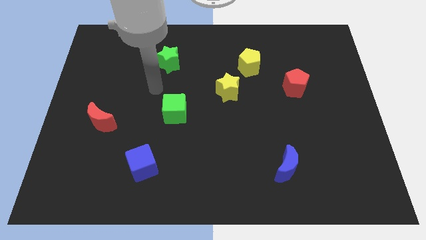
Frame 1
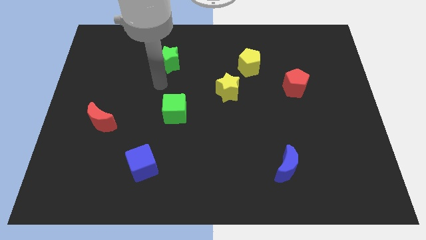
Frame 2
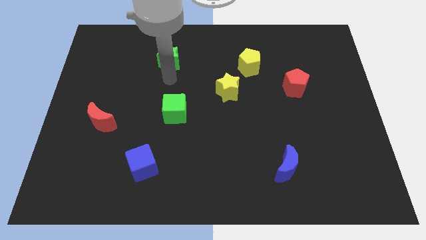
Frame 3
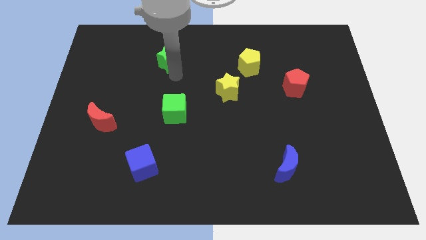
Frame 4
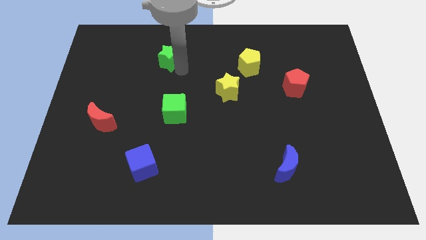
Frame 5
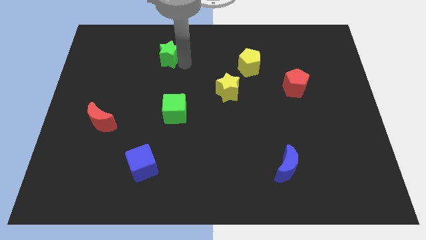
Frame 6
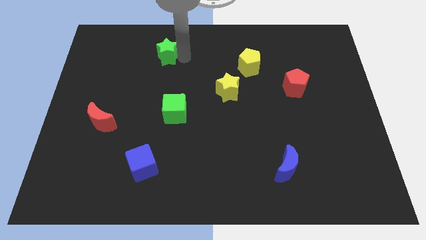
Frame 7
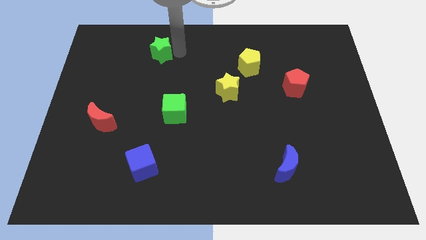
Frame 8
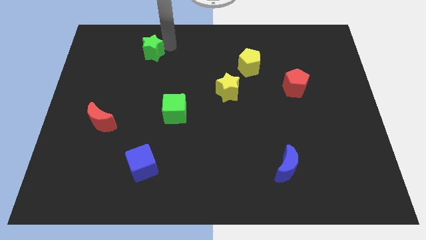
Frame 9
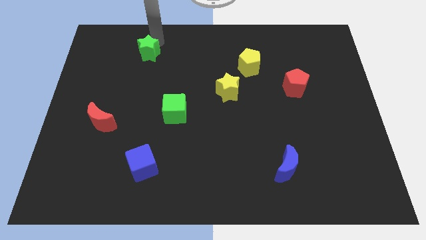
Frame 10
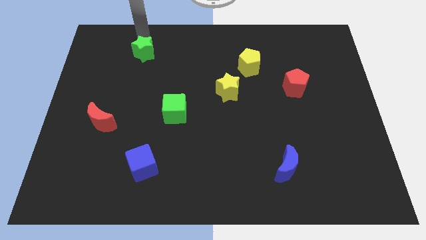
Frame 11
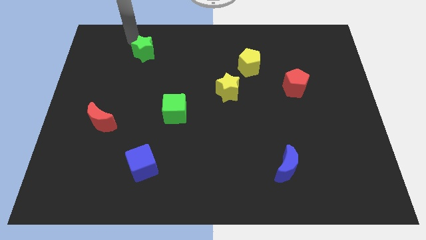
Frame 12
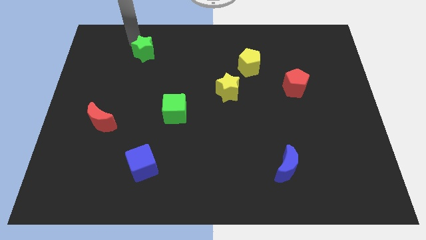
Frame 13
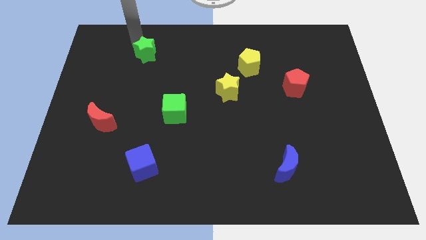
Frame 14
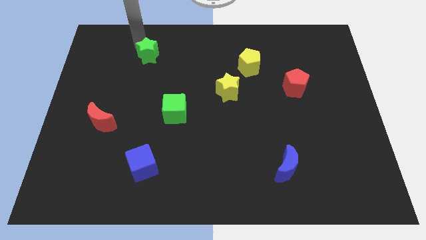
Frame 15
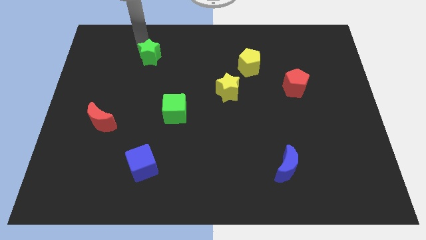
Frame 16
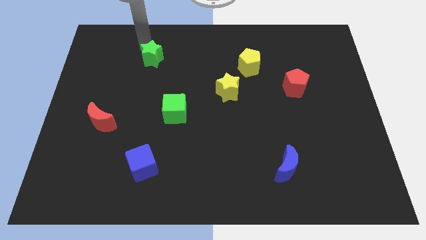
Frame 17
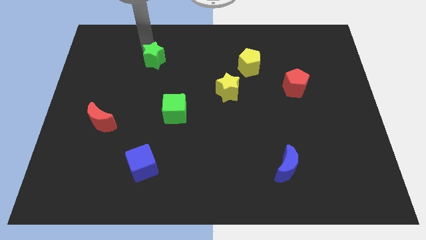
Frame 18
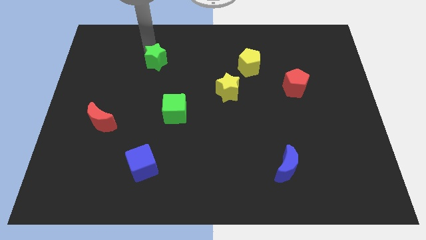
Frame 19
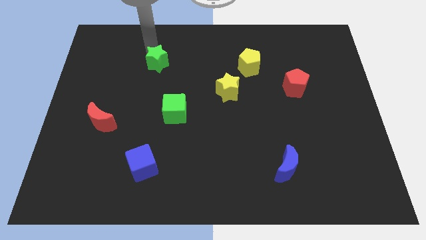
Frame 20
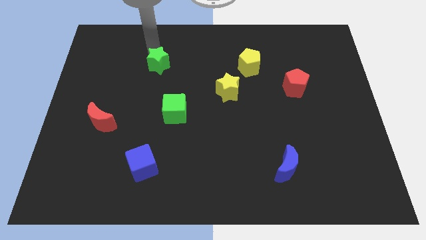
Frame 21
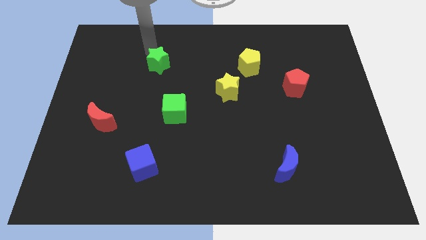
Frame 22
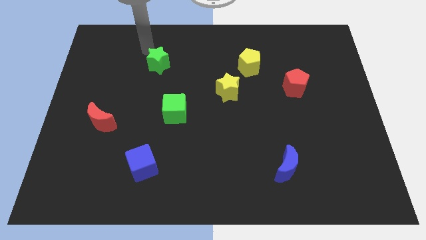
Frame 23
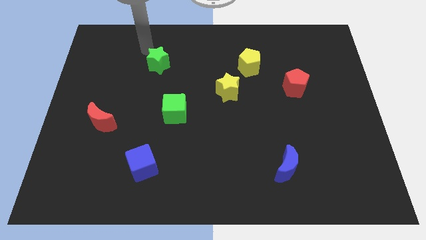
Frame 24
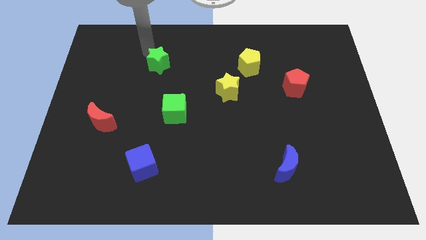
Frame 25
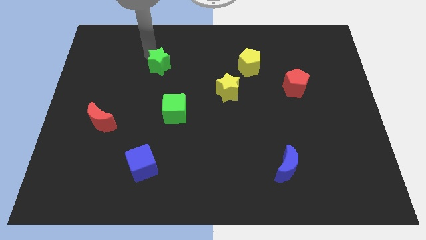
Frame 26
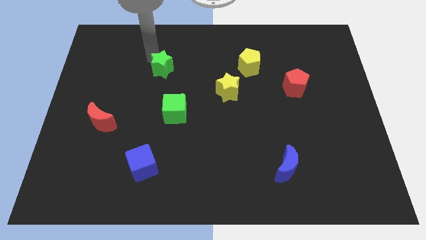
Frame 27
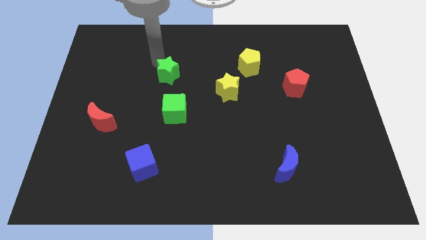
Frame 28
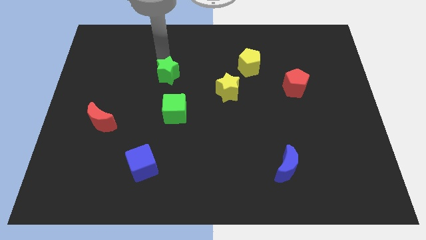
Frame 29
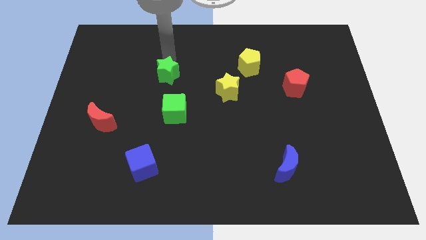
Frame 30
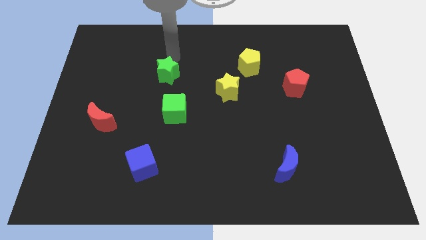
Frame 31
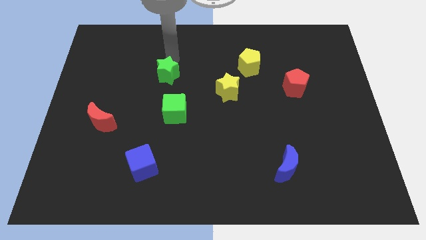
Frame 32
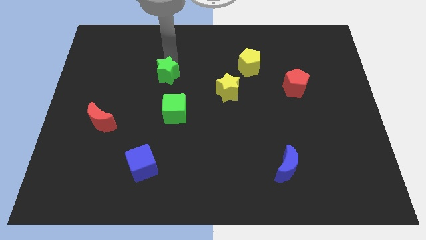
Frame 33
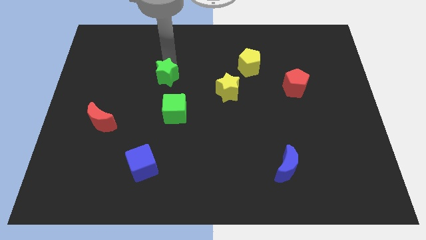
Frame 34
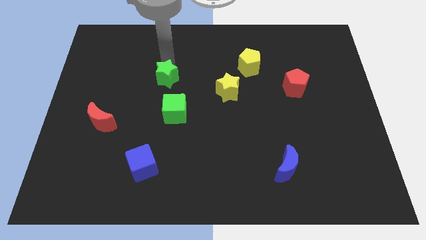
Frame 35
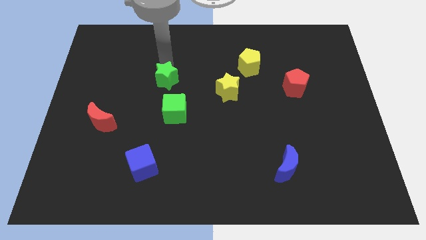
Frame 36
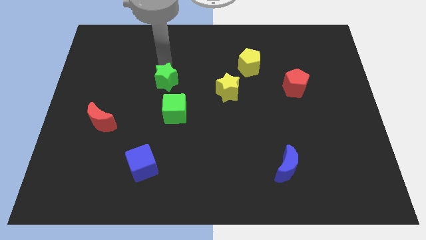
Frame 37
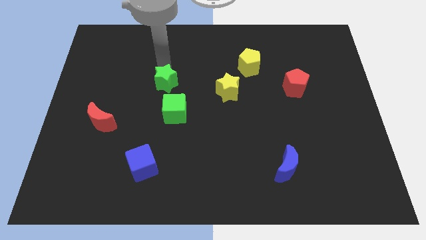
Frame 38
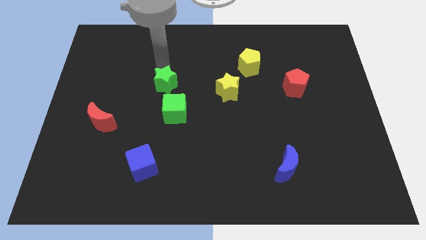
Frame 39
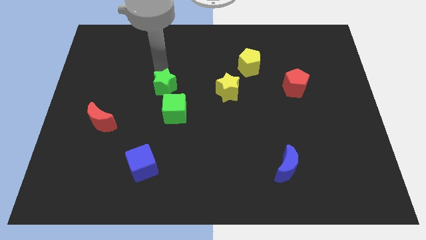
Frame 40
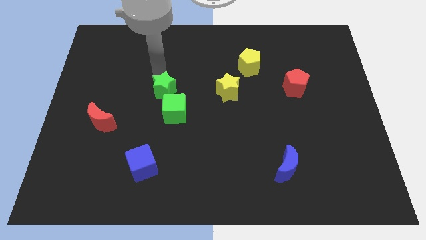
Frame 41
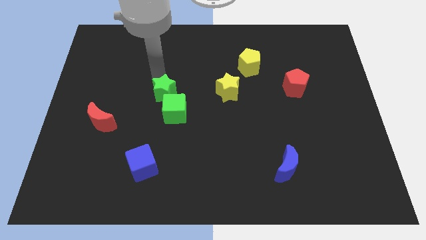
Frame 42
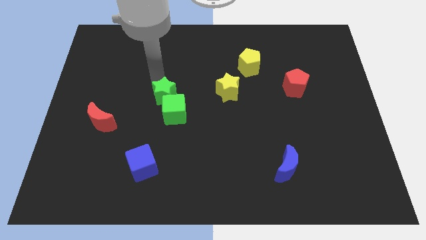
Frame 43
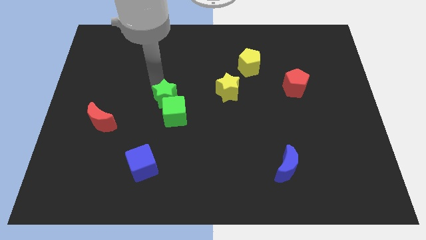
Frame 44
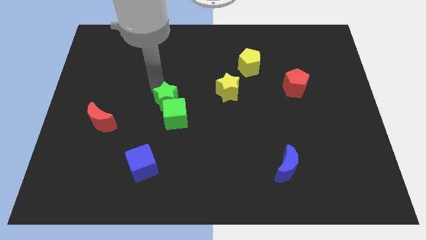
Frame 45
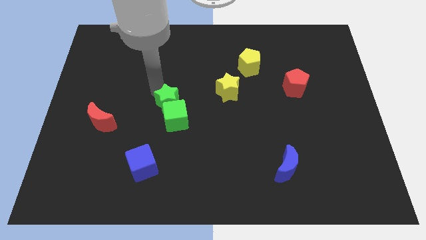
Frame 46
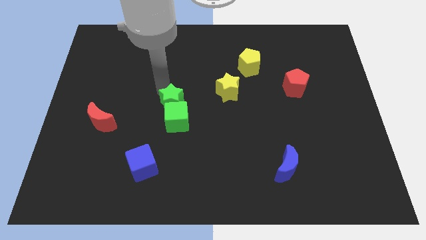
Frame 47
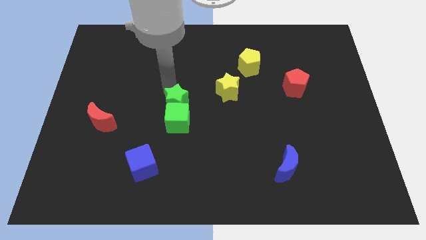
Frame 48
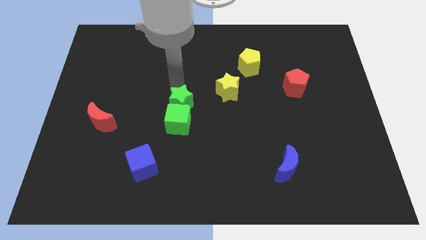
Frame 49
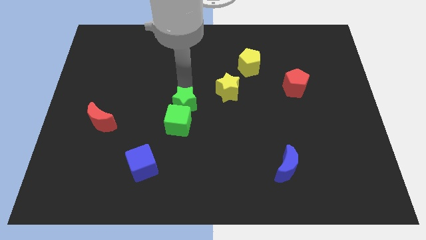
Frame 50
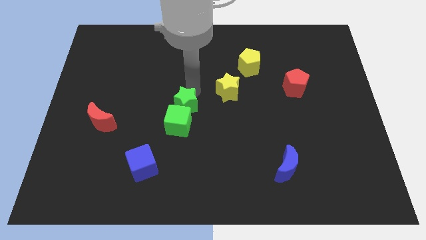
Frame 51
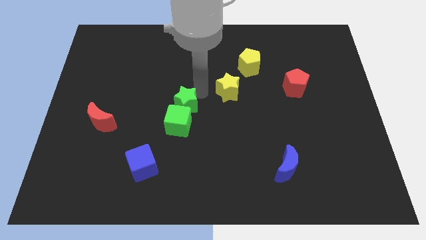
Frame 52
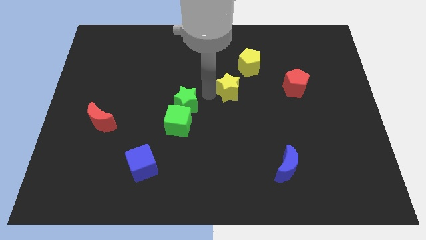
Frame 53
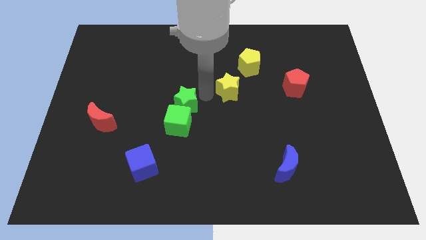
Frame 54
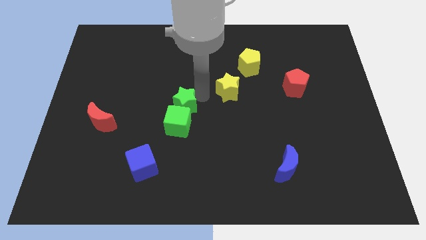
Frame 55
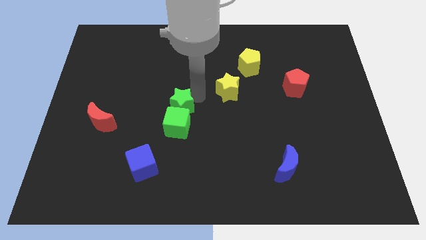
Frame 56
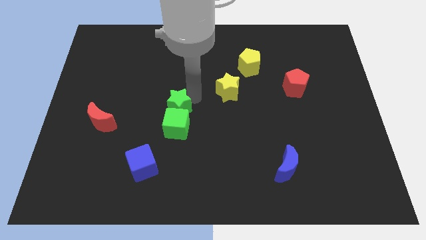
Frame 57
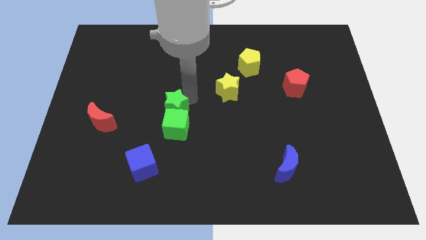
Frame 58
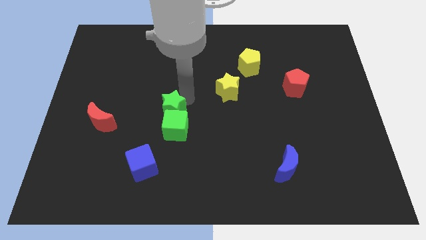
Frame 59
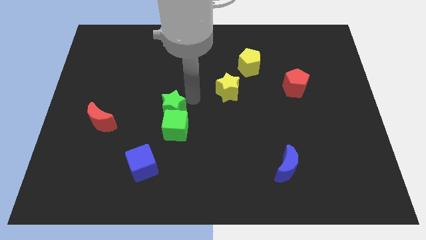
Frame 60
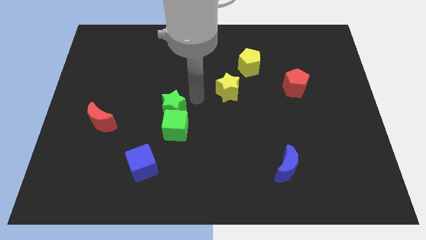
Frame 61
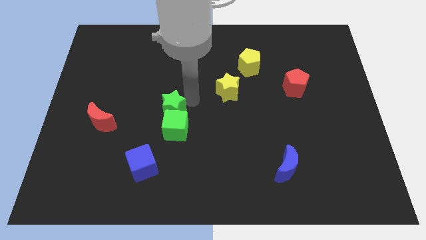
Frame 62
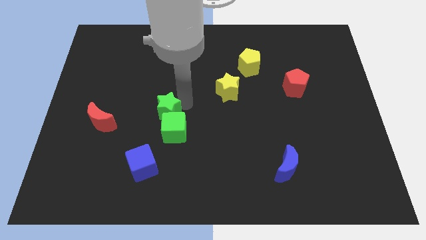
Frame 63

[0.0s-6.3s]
slide the green star right of the red moon
